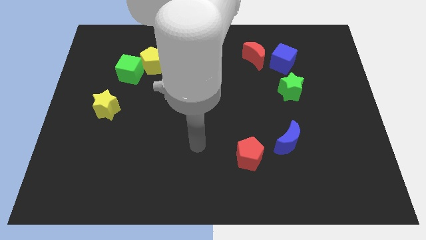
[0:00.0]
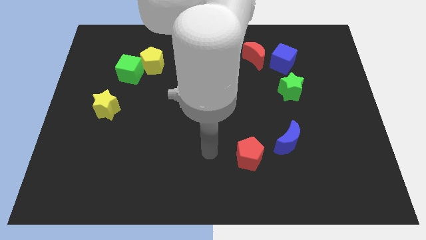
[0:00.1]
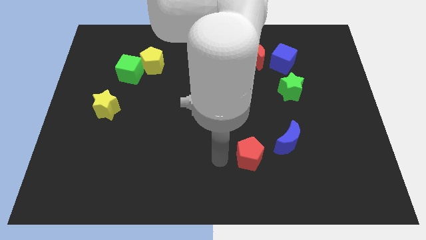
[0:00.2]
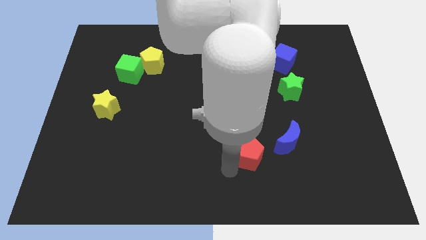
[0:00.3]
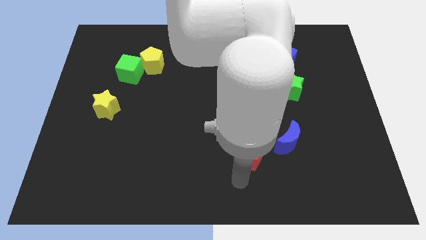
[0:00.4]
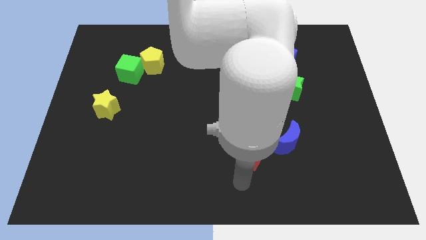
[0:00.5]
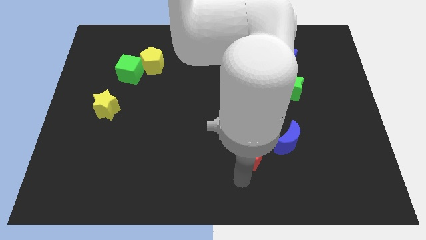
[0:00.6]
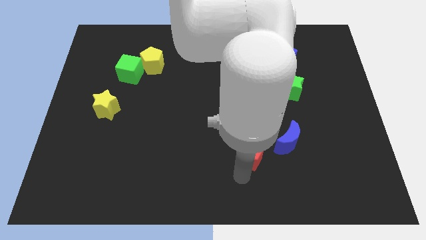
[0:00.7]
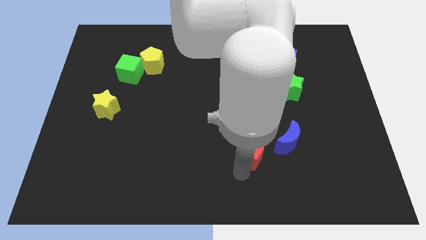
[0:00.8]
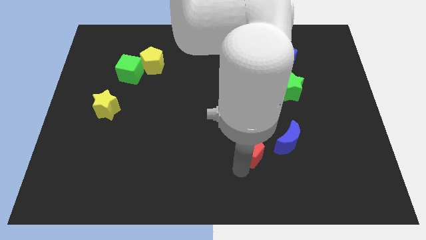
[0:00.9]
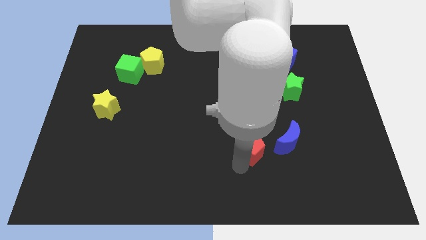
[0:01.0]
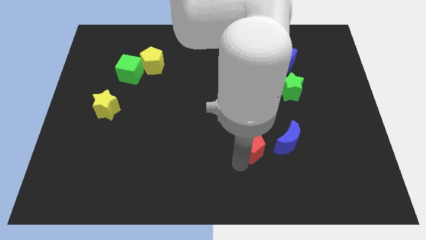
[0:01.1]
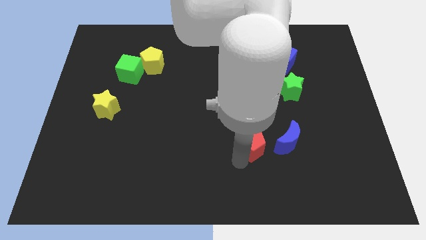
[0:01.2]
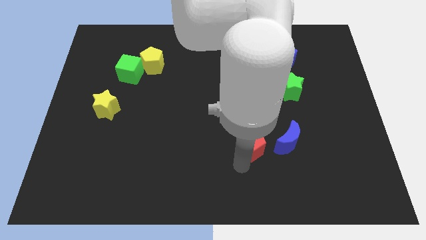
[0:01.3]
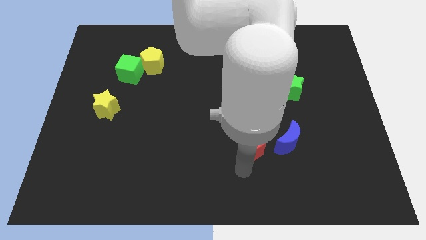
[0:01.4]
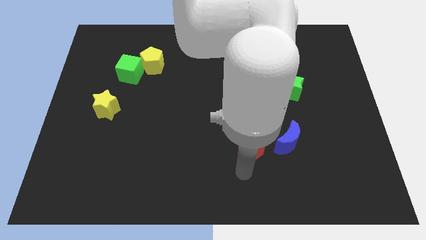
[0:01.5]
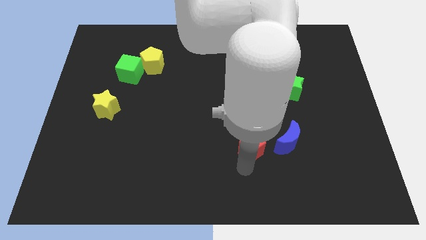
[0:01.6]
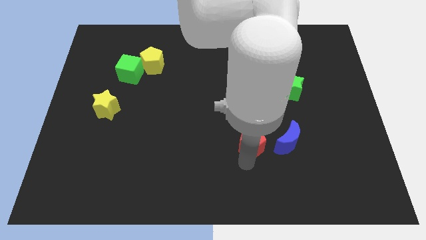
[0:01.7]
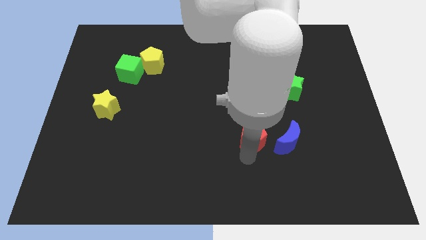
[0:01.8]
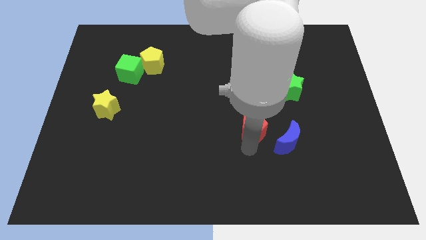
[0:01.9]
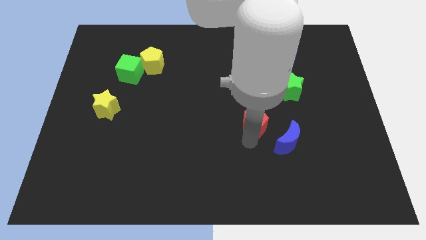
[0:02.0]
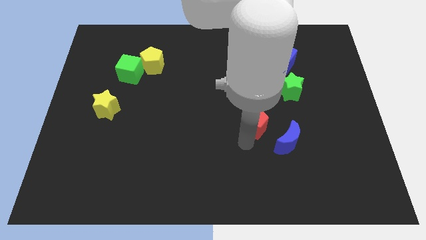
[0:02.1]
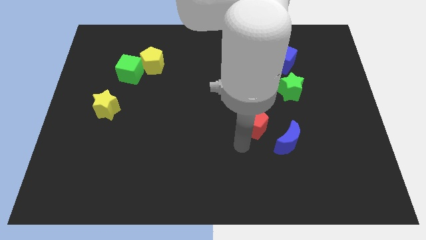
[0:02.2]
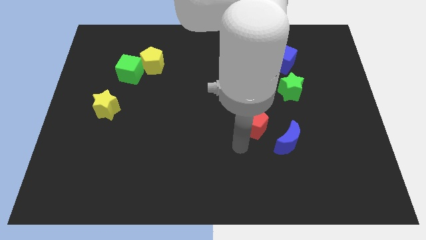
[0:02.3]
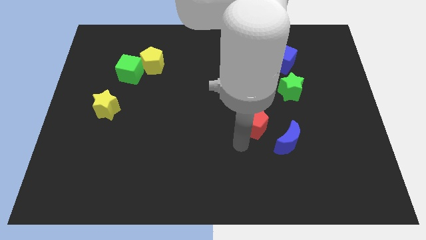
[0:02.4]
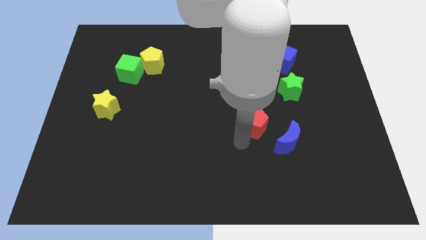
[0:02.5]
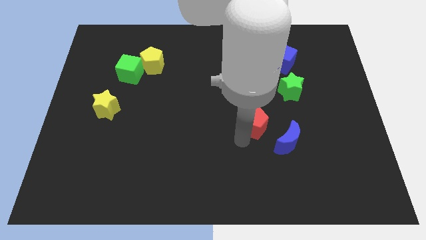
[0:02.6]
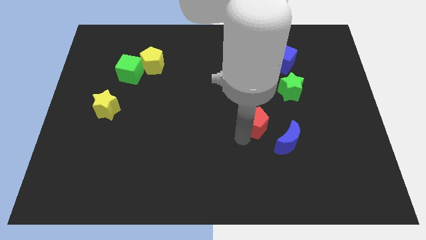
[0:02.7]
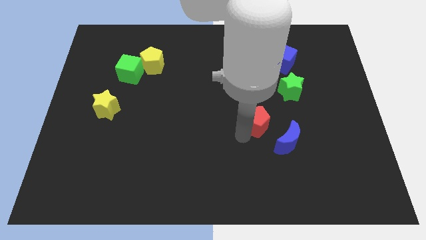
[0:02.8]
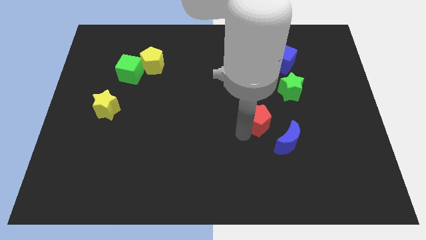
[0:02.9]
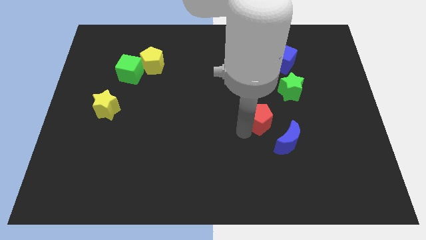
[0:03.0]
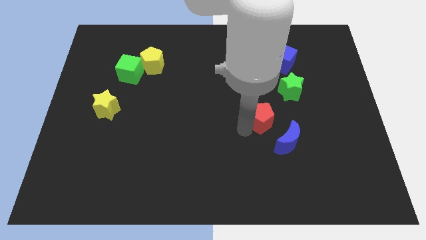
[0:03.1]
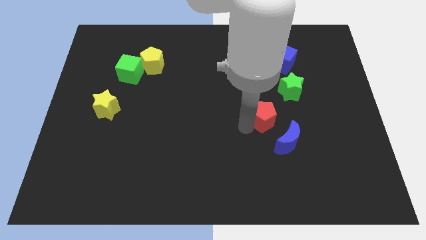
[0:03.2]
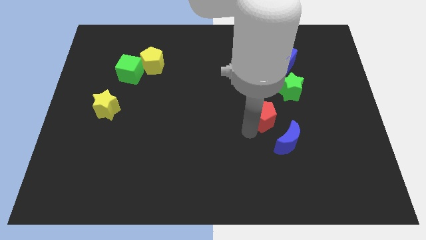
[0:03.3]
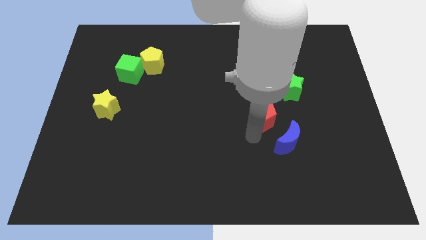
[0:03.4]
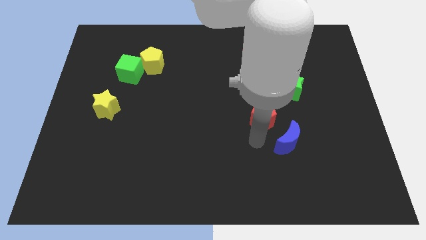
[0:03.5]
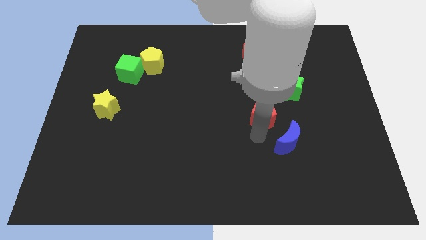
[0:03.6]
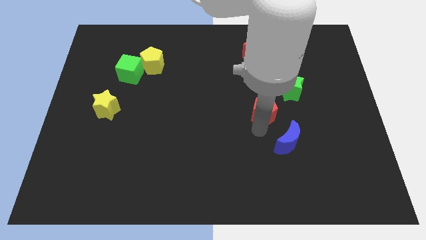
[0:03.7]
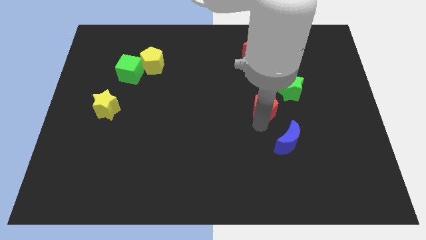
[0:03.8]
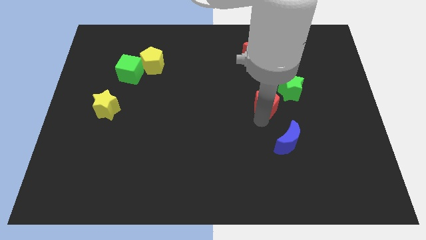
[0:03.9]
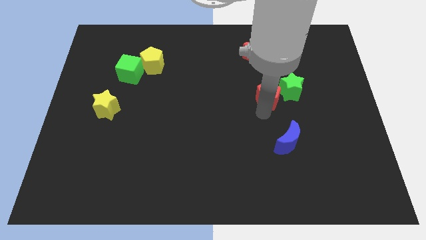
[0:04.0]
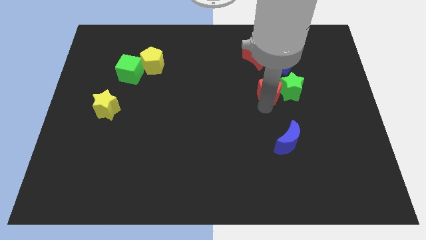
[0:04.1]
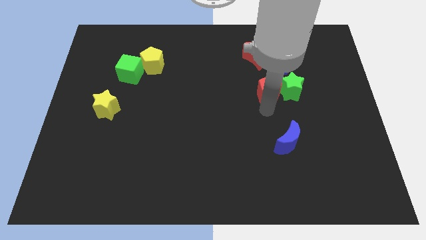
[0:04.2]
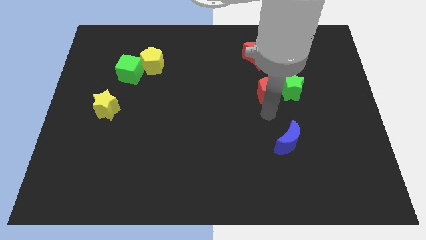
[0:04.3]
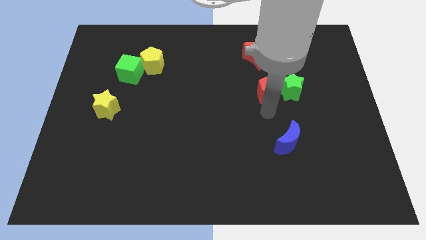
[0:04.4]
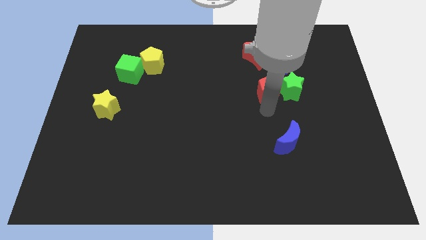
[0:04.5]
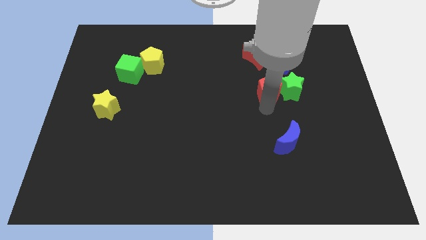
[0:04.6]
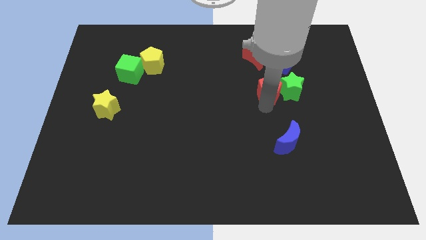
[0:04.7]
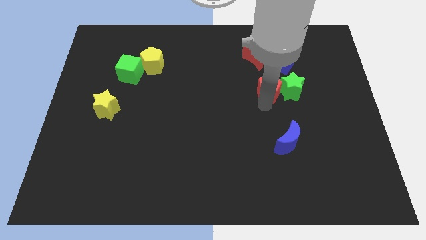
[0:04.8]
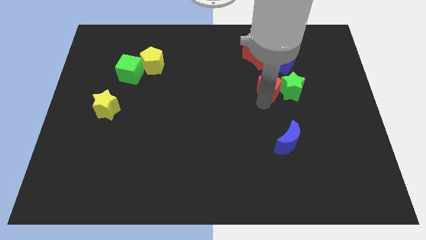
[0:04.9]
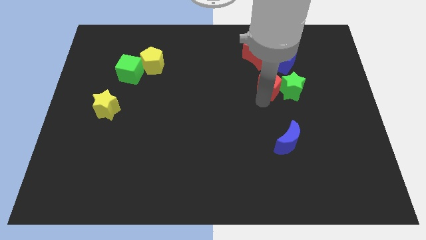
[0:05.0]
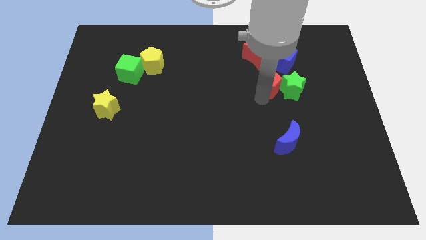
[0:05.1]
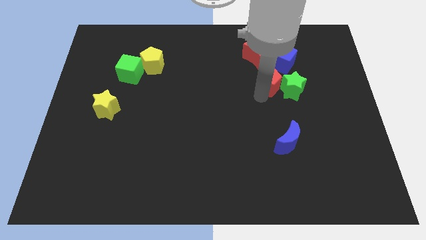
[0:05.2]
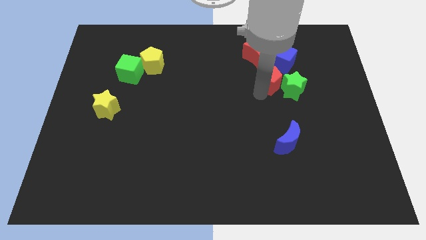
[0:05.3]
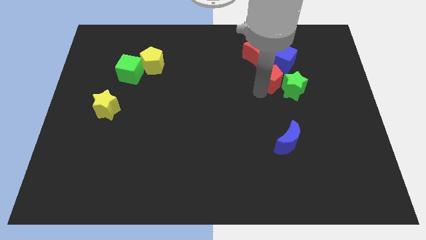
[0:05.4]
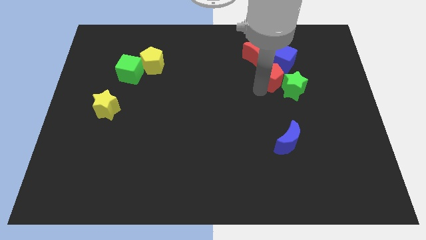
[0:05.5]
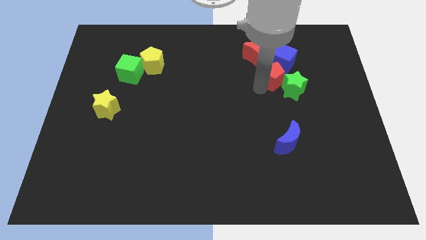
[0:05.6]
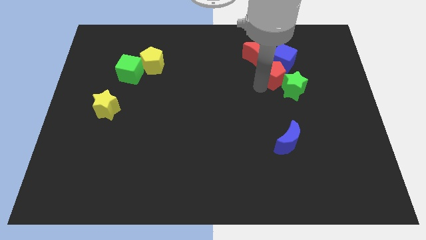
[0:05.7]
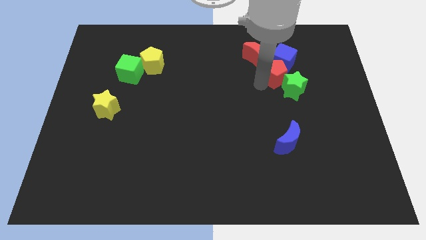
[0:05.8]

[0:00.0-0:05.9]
put the red pentagon to the blue cube
